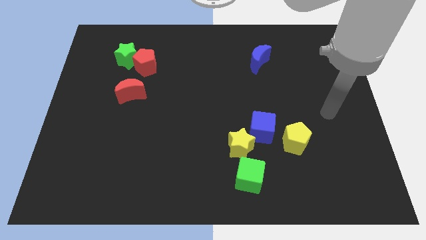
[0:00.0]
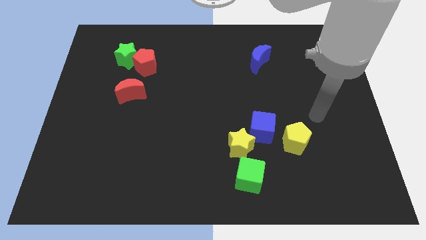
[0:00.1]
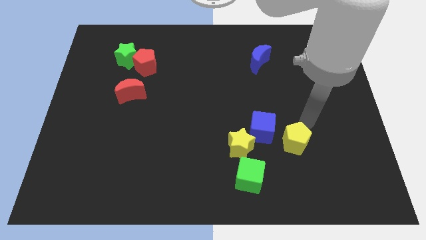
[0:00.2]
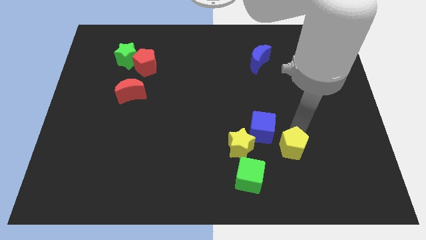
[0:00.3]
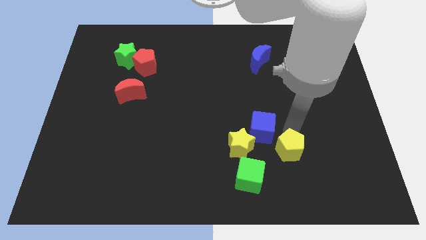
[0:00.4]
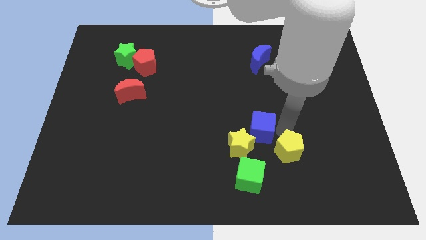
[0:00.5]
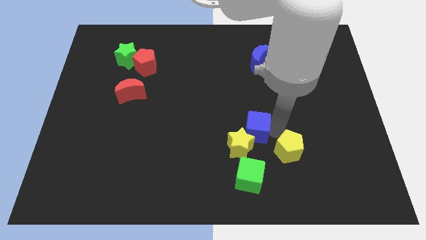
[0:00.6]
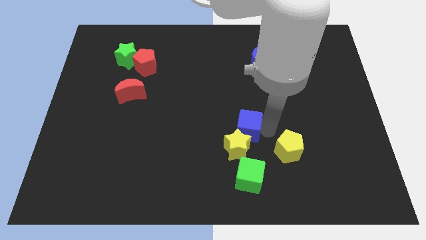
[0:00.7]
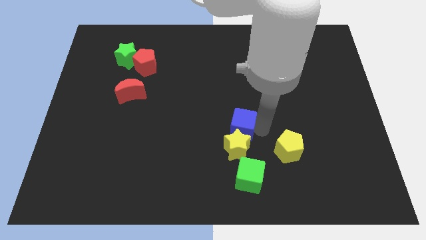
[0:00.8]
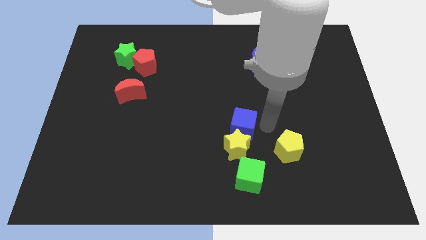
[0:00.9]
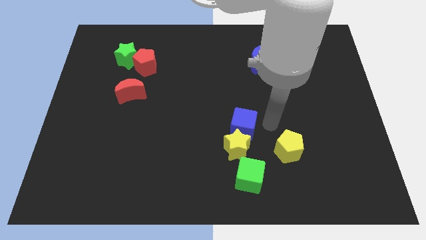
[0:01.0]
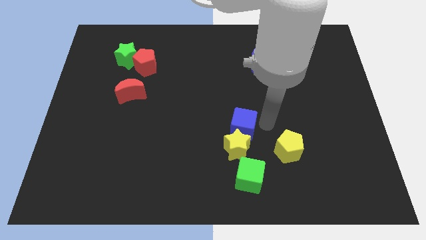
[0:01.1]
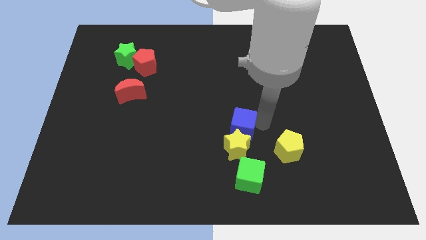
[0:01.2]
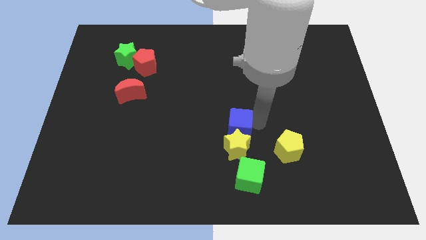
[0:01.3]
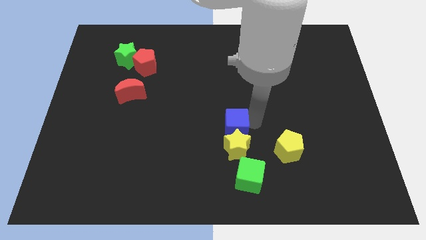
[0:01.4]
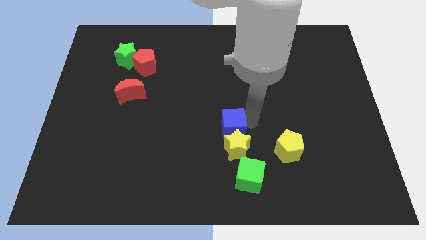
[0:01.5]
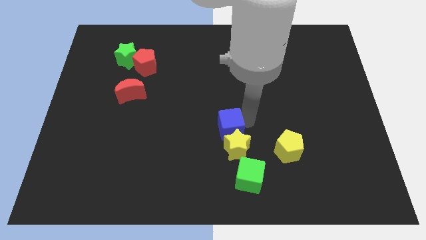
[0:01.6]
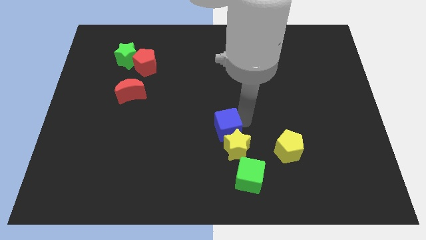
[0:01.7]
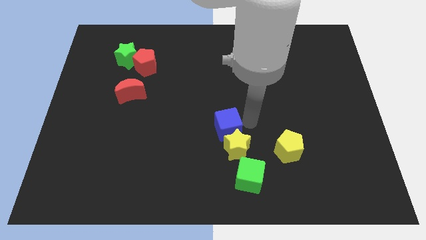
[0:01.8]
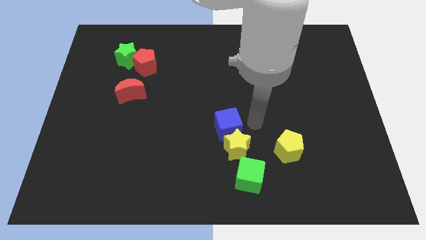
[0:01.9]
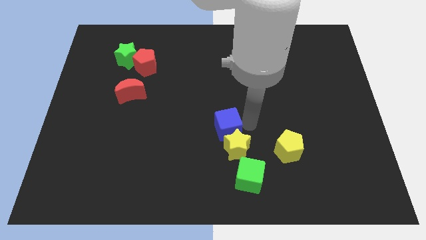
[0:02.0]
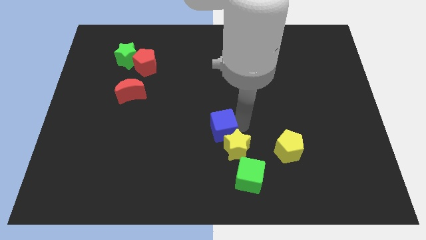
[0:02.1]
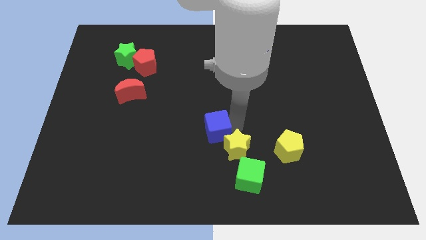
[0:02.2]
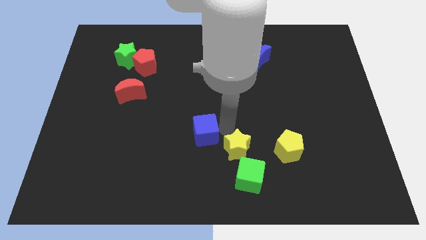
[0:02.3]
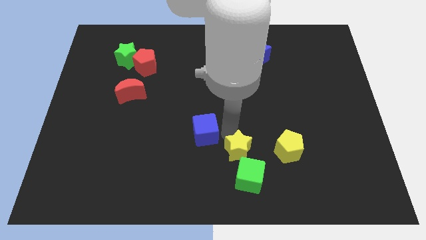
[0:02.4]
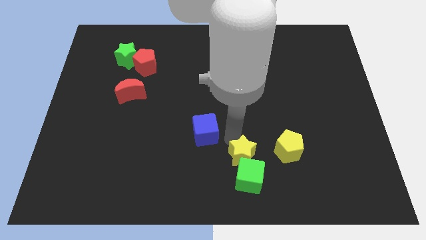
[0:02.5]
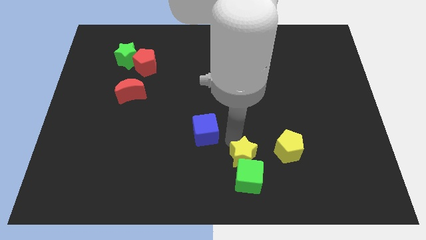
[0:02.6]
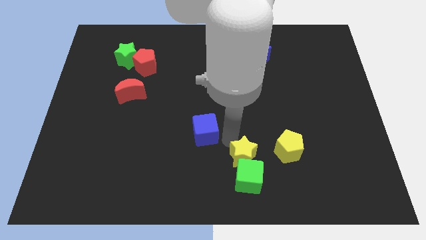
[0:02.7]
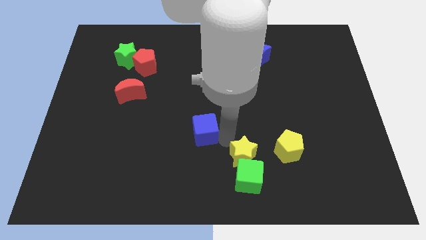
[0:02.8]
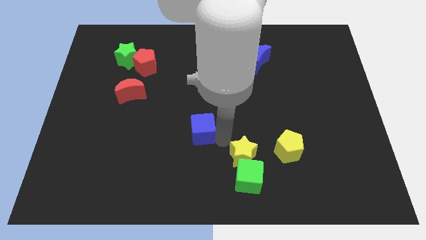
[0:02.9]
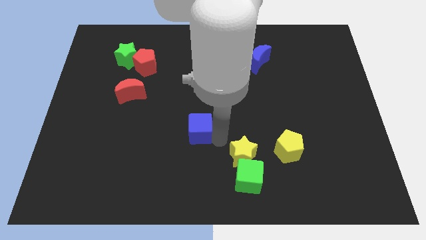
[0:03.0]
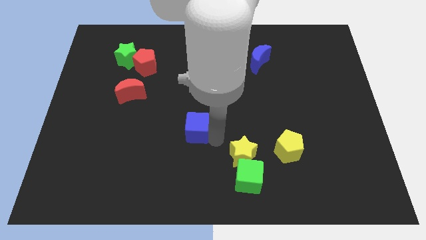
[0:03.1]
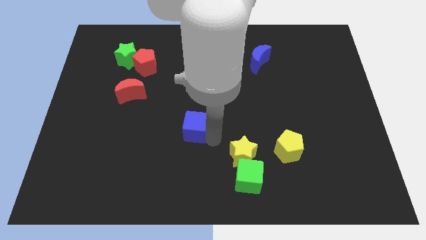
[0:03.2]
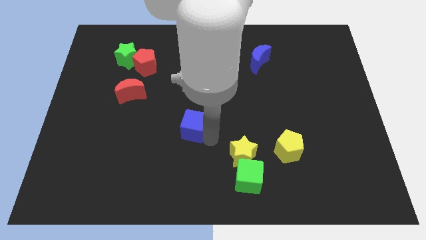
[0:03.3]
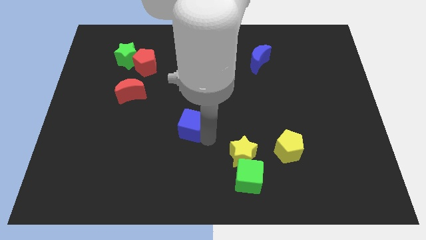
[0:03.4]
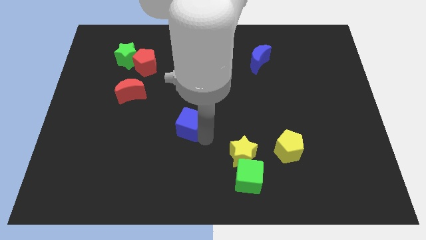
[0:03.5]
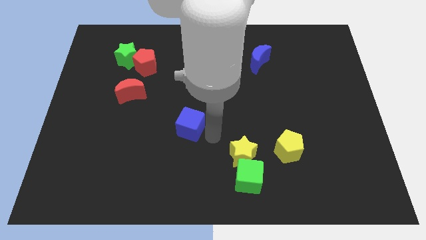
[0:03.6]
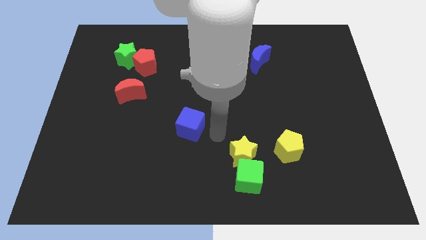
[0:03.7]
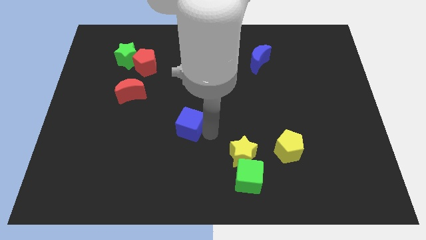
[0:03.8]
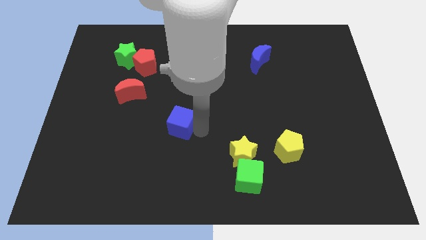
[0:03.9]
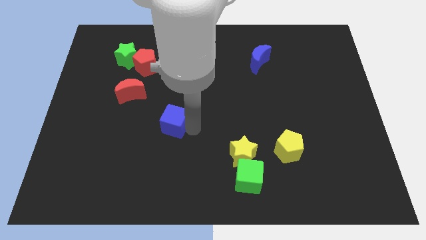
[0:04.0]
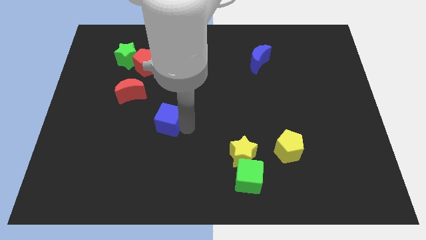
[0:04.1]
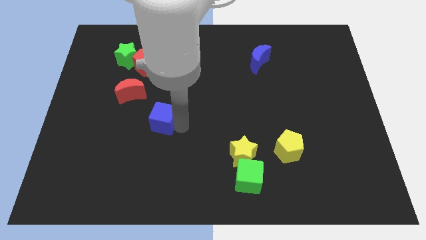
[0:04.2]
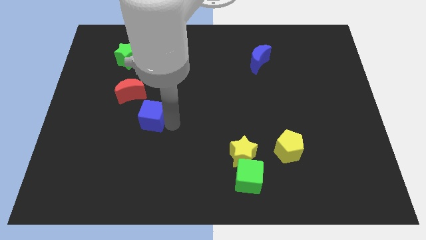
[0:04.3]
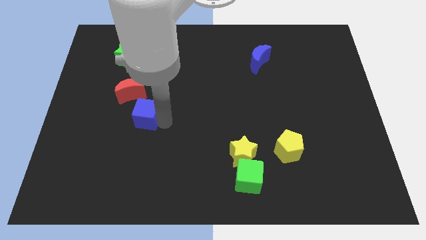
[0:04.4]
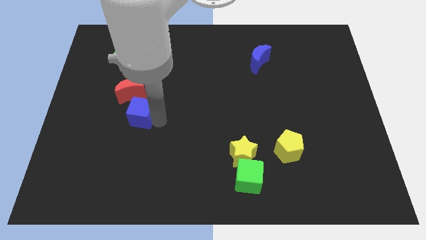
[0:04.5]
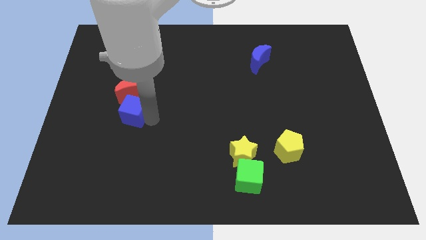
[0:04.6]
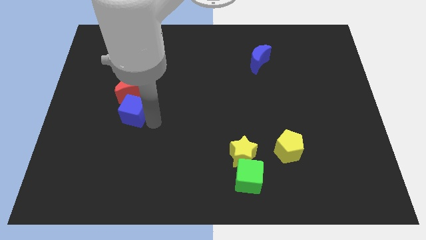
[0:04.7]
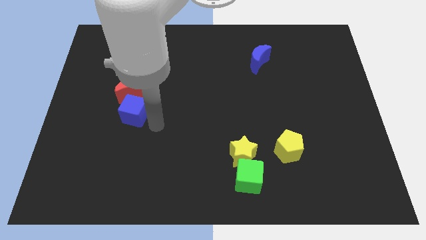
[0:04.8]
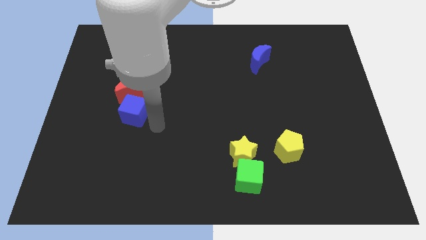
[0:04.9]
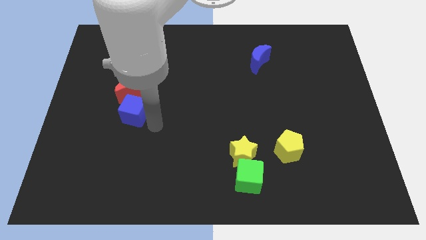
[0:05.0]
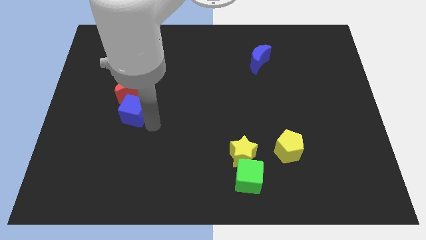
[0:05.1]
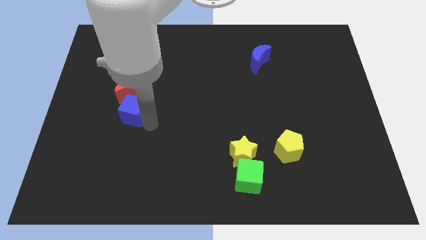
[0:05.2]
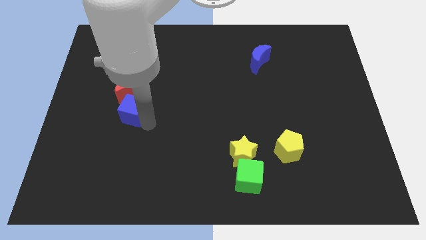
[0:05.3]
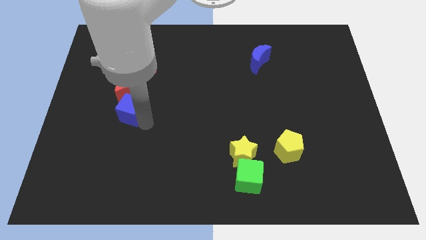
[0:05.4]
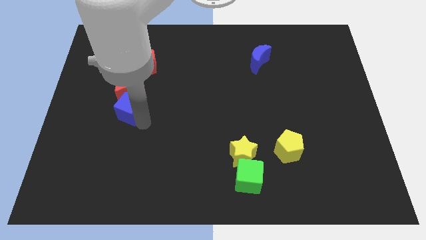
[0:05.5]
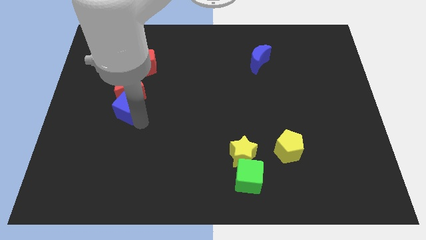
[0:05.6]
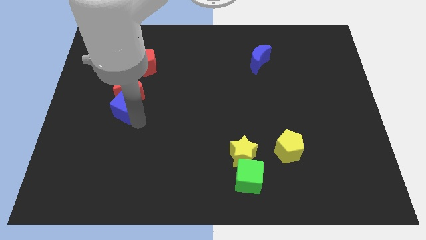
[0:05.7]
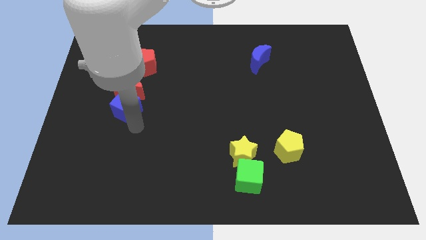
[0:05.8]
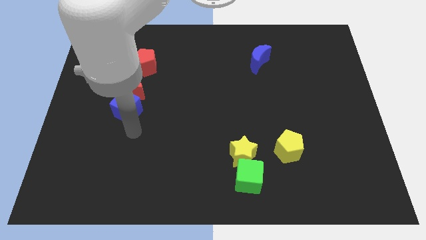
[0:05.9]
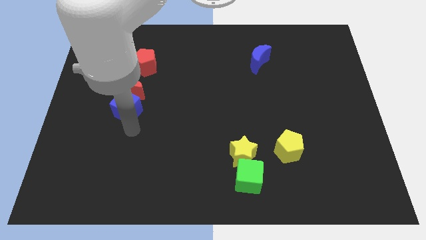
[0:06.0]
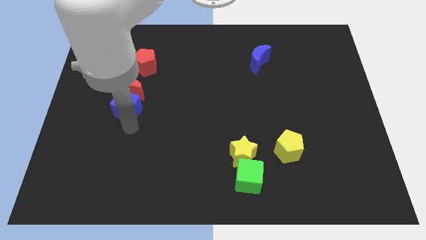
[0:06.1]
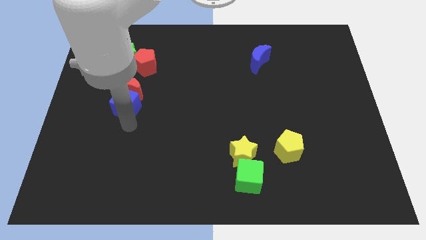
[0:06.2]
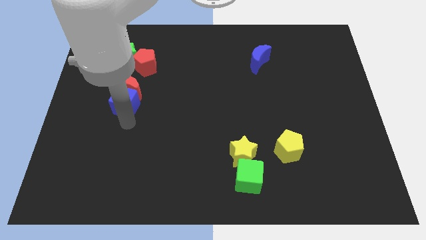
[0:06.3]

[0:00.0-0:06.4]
slide the blue cube to the bottom side of the green star
